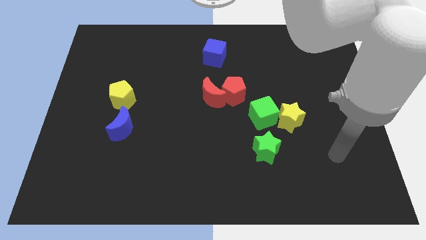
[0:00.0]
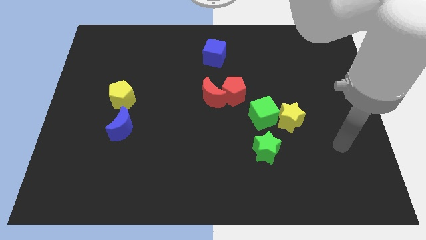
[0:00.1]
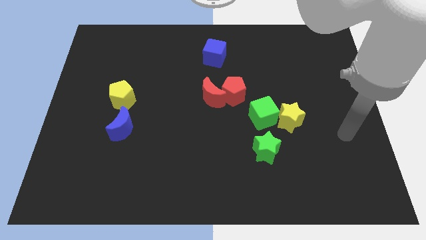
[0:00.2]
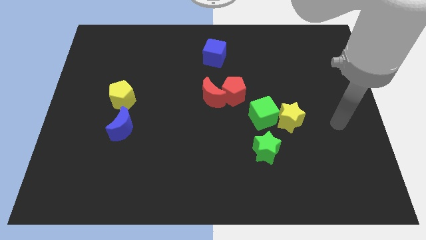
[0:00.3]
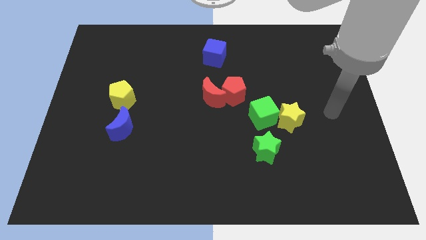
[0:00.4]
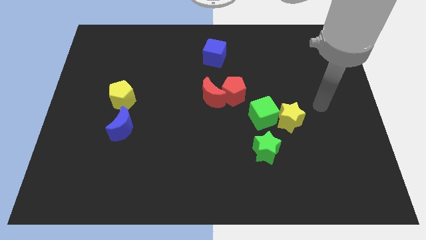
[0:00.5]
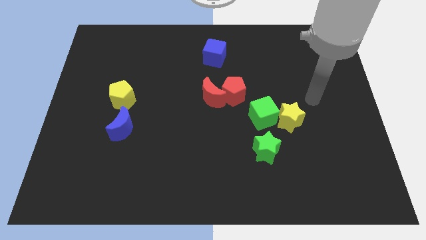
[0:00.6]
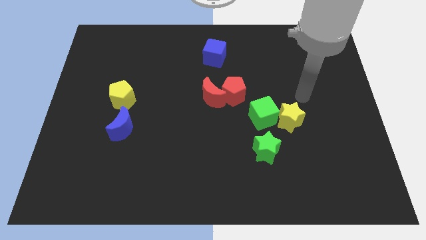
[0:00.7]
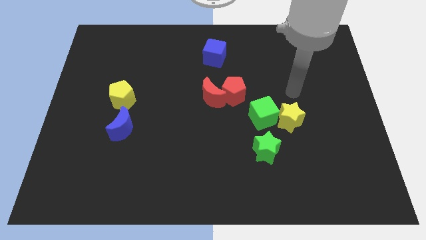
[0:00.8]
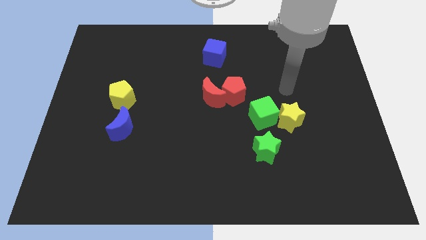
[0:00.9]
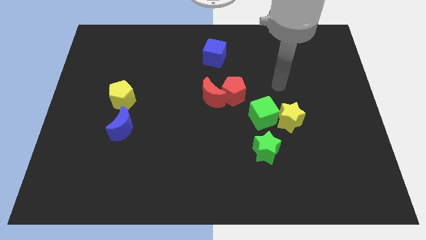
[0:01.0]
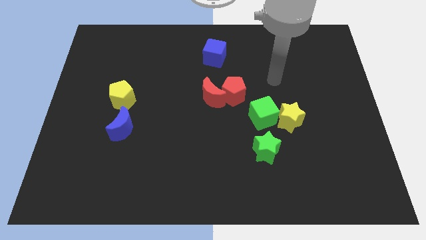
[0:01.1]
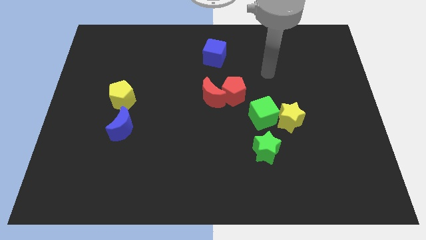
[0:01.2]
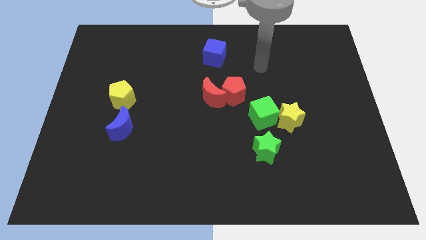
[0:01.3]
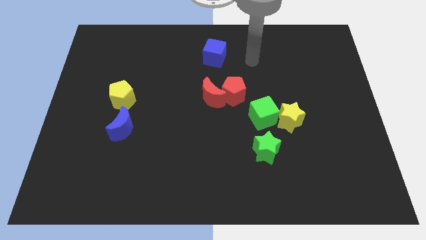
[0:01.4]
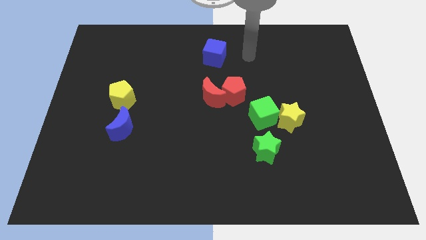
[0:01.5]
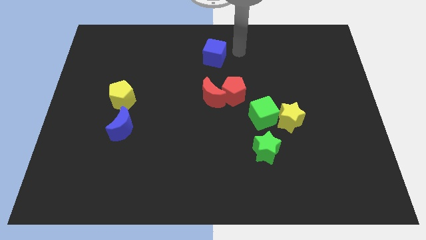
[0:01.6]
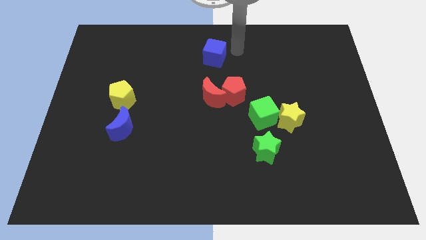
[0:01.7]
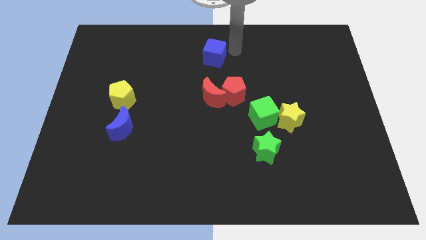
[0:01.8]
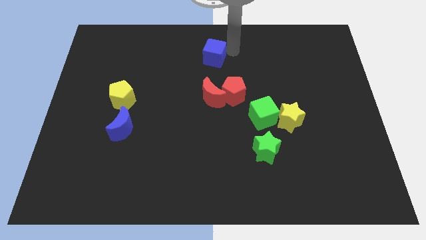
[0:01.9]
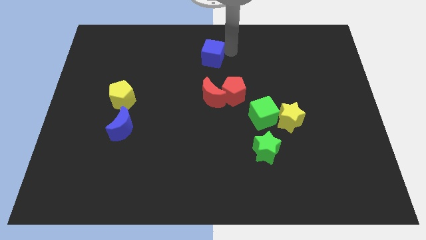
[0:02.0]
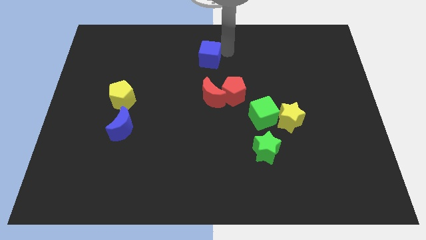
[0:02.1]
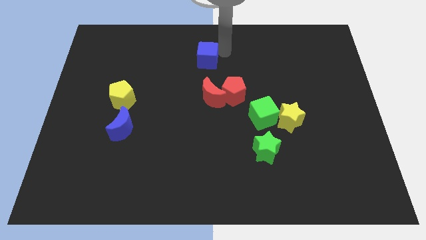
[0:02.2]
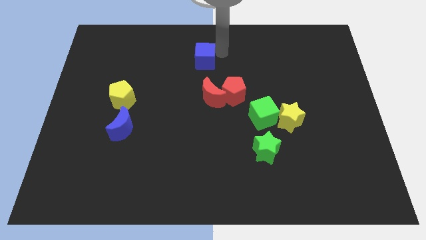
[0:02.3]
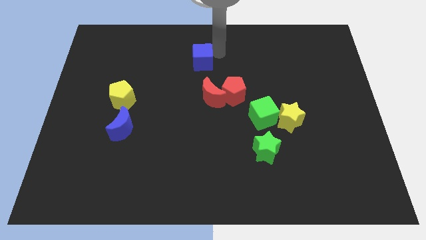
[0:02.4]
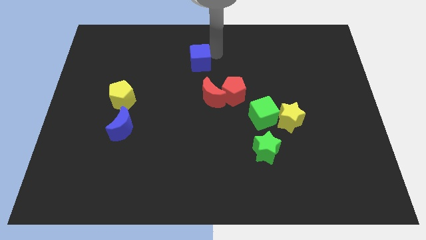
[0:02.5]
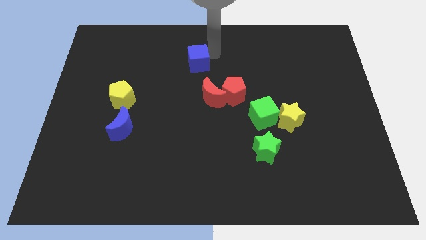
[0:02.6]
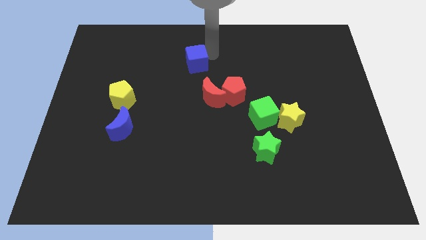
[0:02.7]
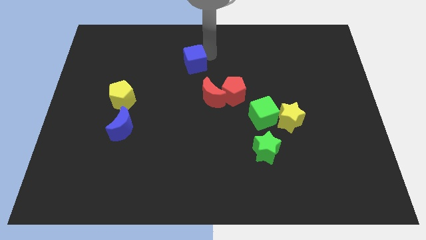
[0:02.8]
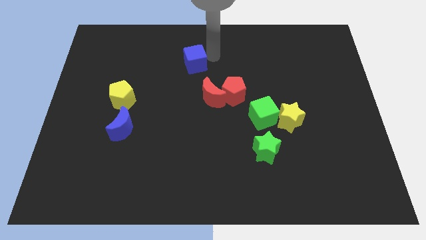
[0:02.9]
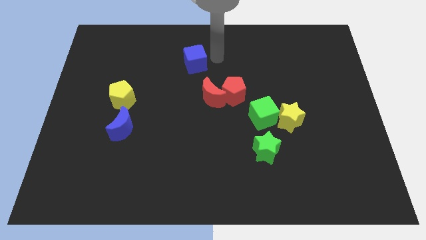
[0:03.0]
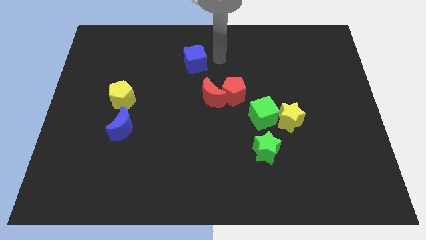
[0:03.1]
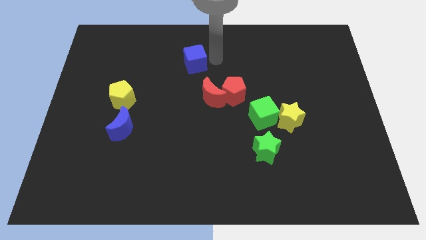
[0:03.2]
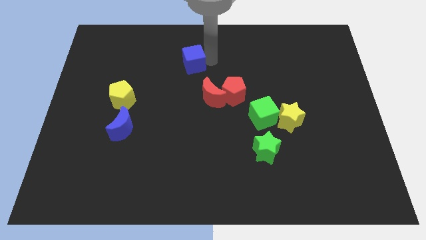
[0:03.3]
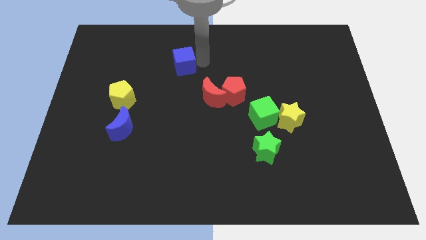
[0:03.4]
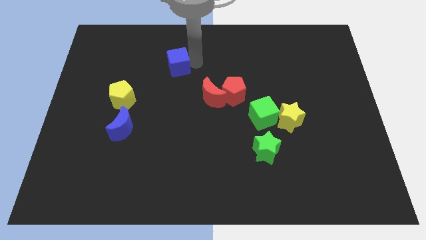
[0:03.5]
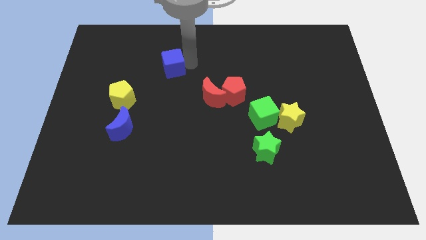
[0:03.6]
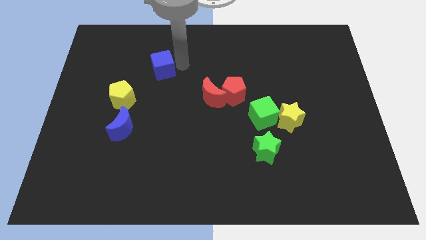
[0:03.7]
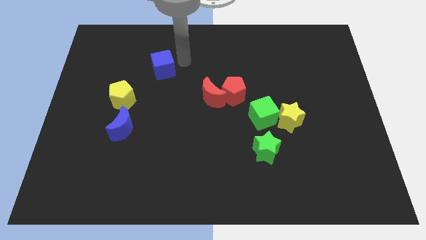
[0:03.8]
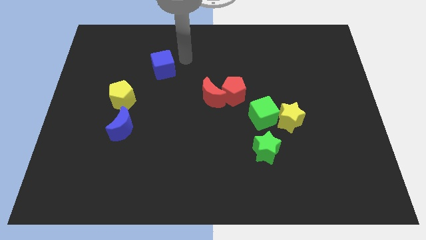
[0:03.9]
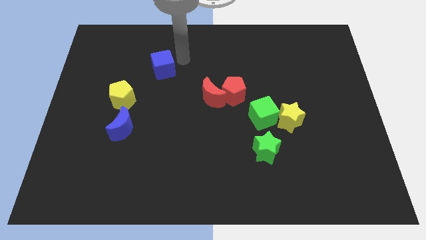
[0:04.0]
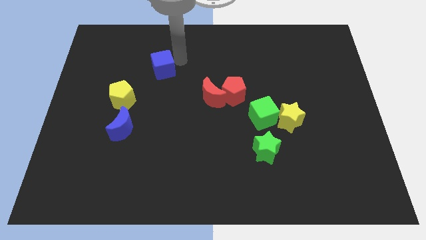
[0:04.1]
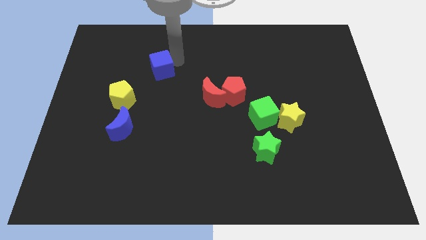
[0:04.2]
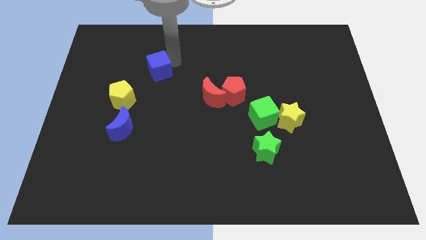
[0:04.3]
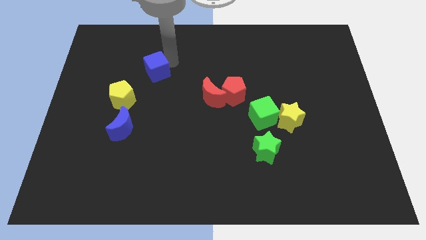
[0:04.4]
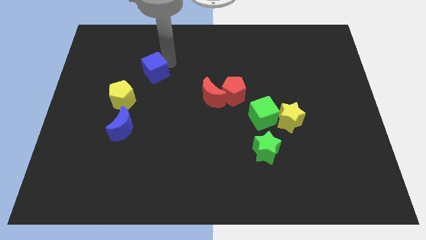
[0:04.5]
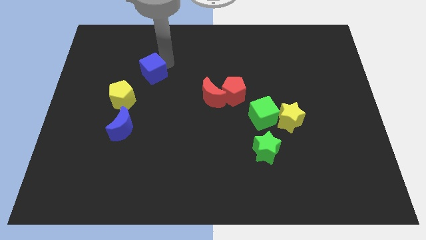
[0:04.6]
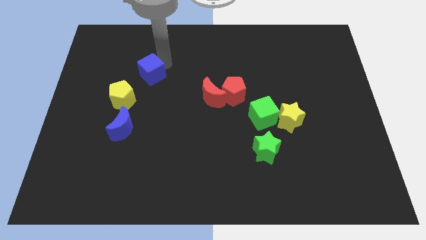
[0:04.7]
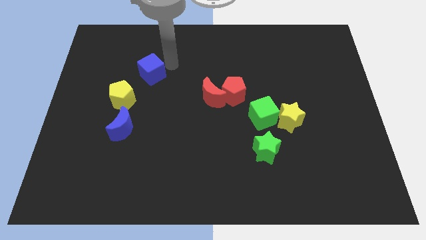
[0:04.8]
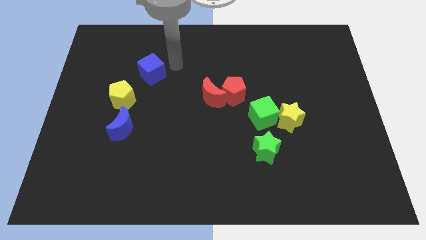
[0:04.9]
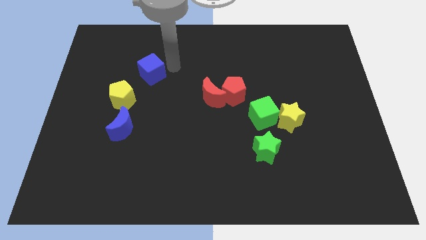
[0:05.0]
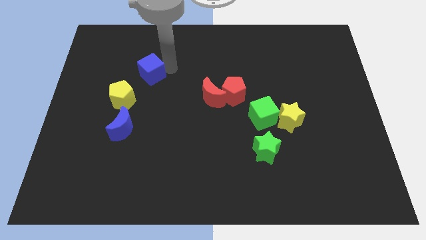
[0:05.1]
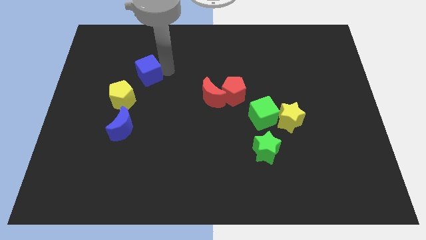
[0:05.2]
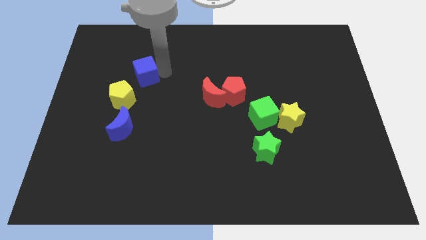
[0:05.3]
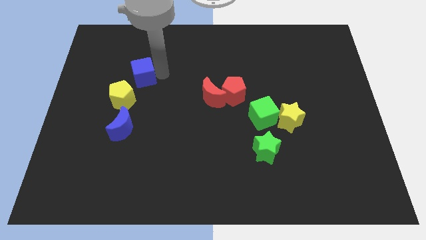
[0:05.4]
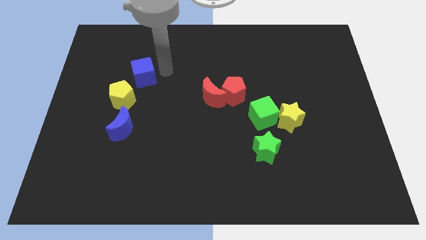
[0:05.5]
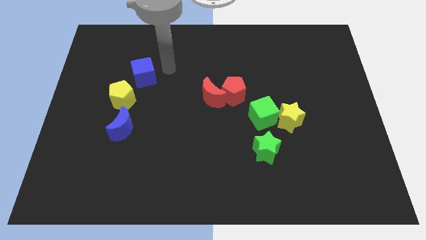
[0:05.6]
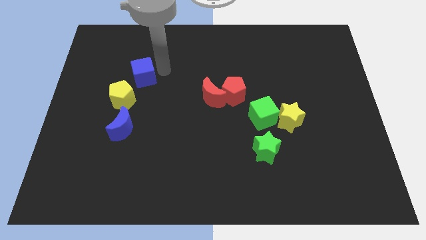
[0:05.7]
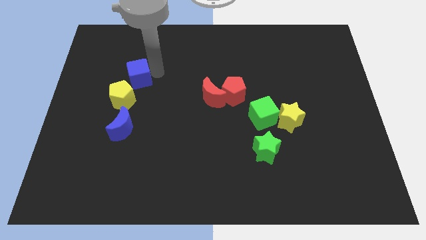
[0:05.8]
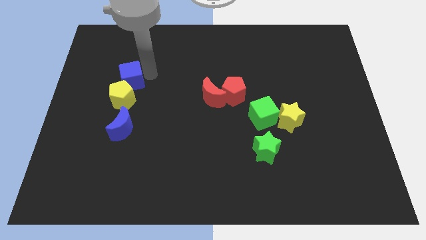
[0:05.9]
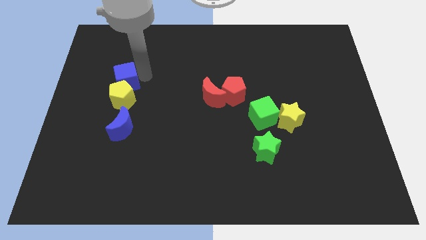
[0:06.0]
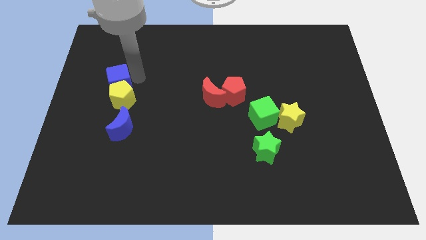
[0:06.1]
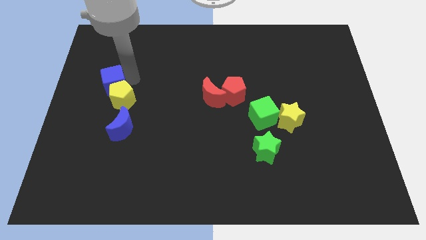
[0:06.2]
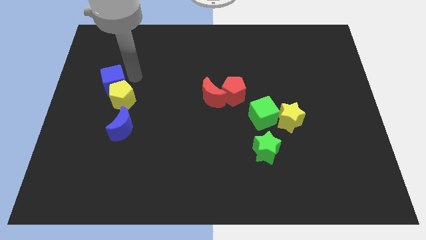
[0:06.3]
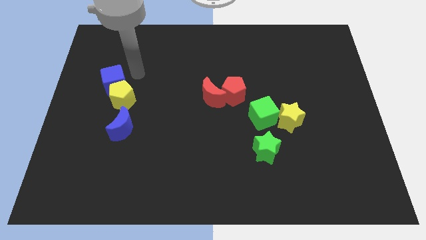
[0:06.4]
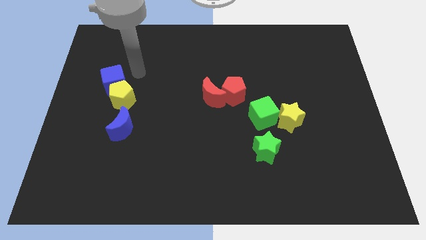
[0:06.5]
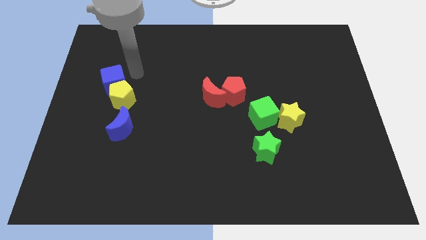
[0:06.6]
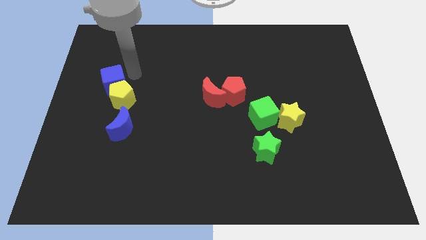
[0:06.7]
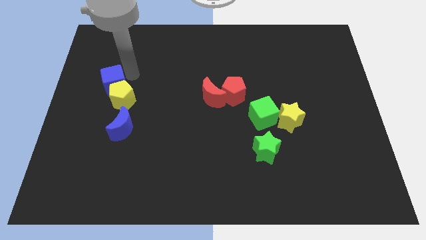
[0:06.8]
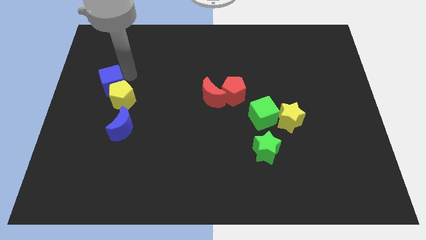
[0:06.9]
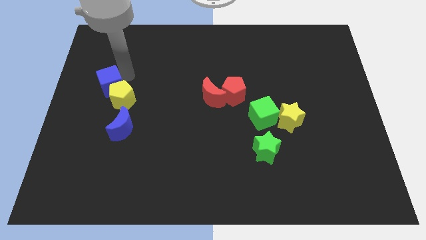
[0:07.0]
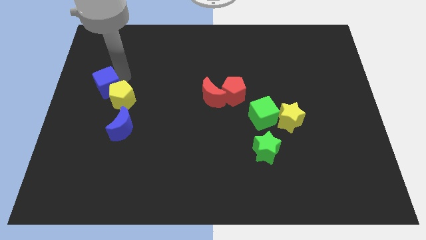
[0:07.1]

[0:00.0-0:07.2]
move the blue cube to the left side of the board
